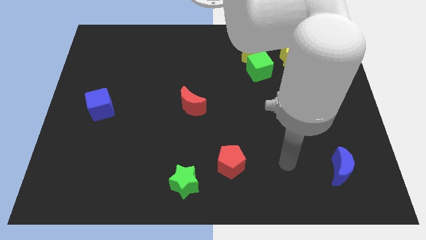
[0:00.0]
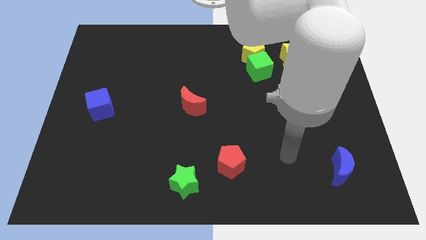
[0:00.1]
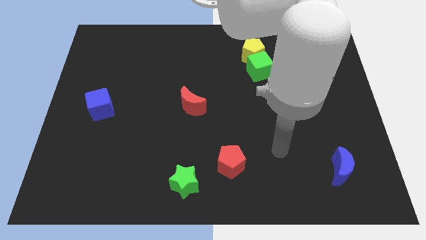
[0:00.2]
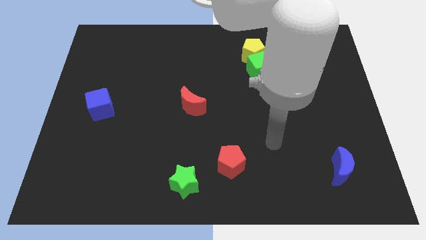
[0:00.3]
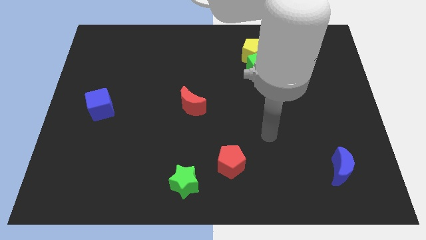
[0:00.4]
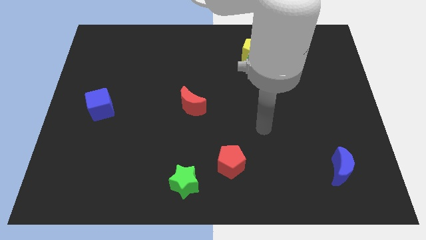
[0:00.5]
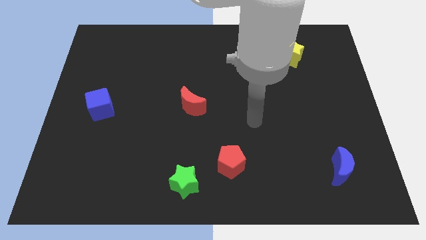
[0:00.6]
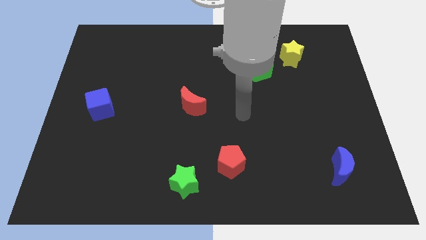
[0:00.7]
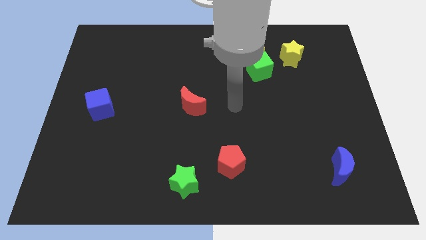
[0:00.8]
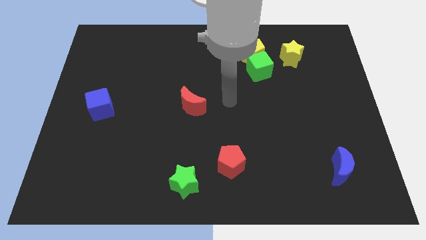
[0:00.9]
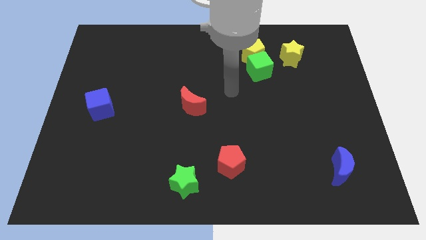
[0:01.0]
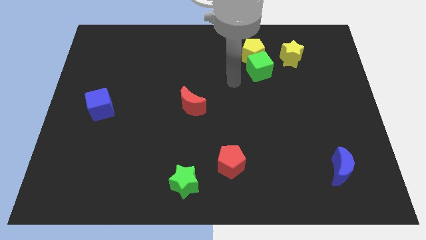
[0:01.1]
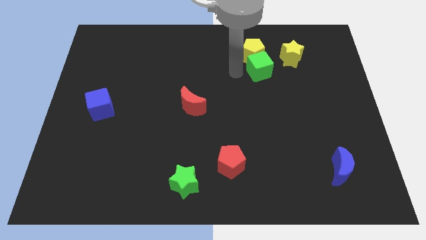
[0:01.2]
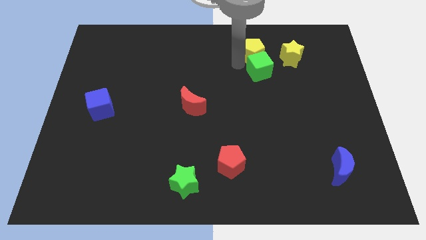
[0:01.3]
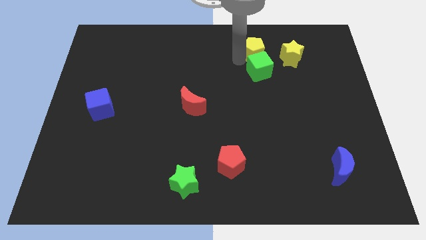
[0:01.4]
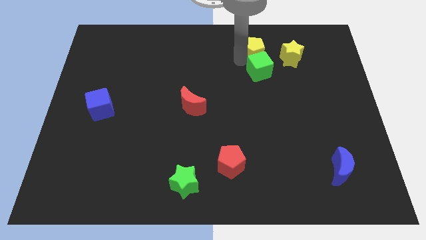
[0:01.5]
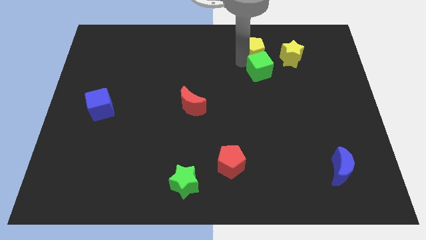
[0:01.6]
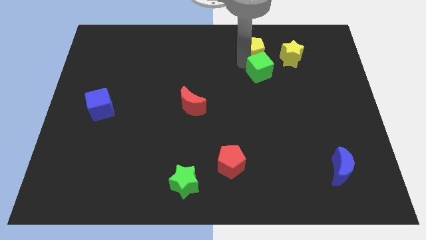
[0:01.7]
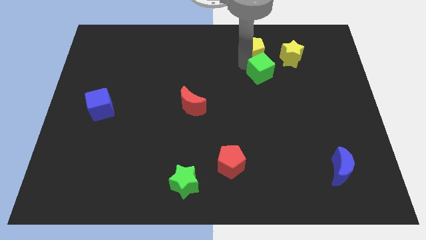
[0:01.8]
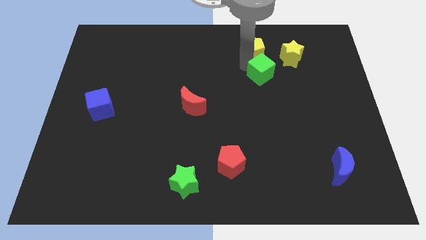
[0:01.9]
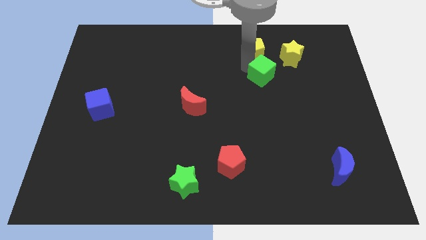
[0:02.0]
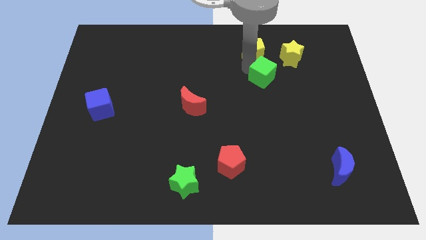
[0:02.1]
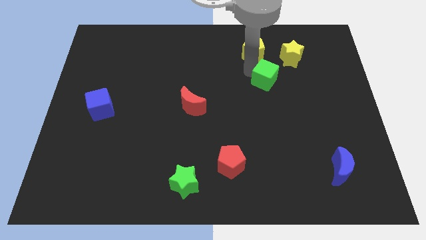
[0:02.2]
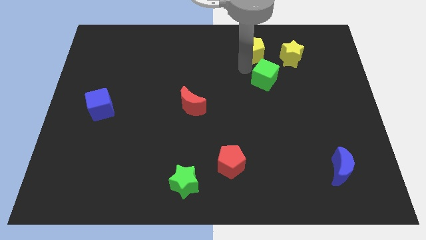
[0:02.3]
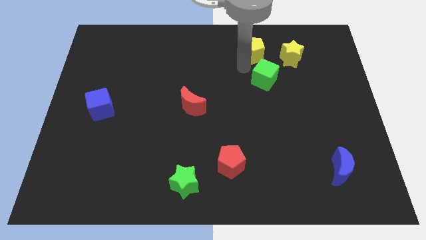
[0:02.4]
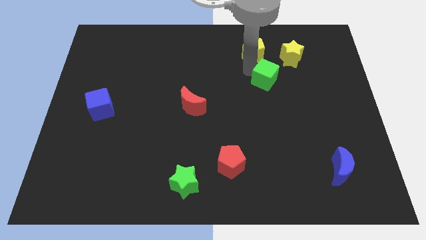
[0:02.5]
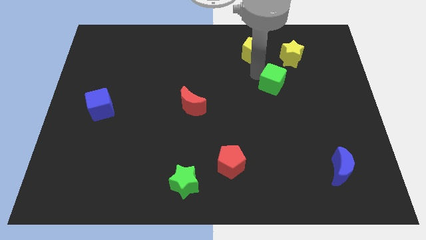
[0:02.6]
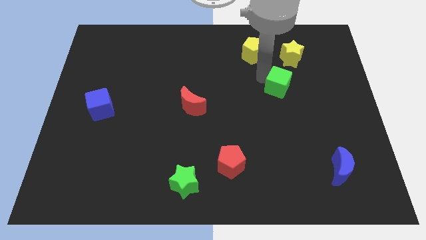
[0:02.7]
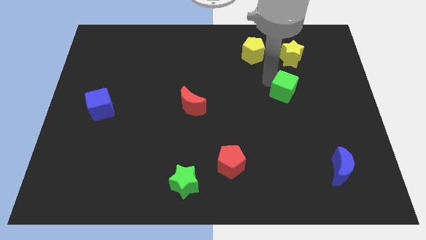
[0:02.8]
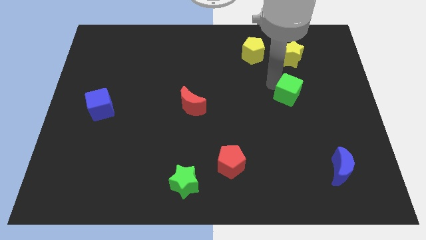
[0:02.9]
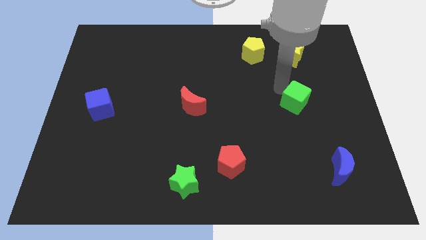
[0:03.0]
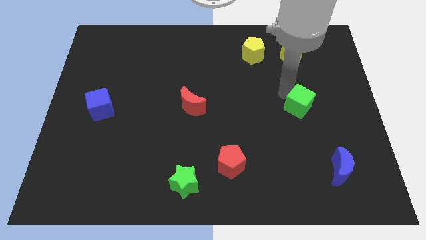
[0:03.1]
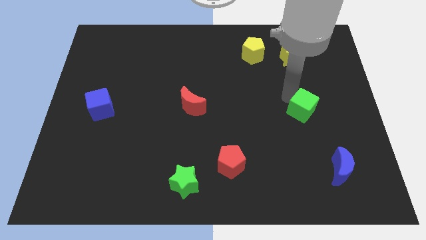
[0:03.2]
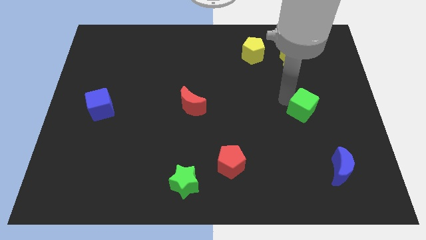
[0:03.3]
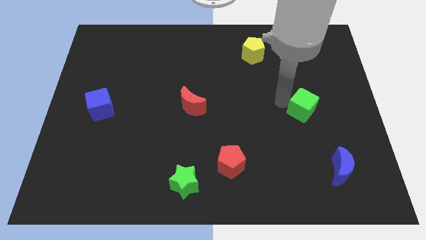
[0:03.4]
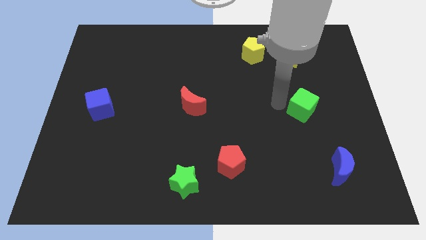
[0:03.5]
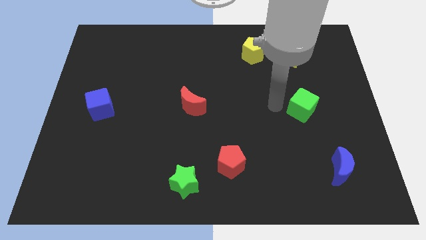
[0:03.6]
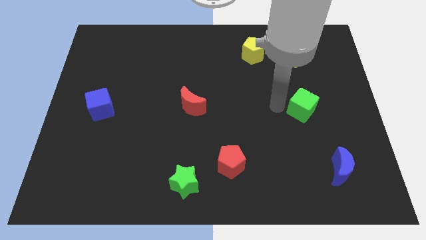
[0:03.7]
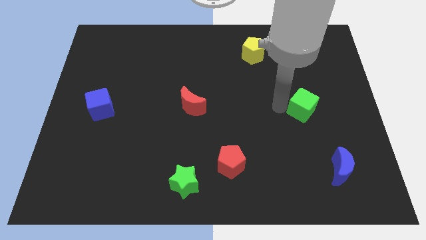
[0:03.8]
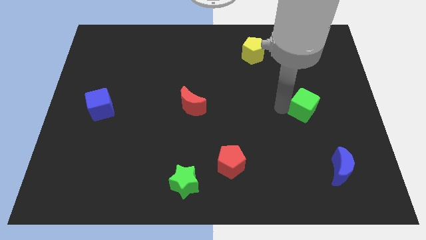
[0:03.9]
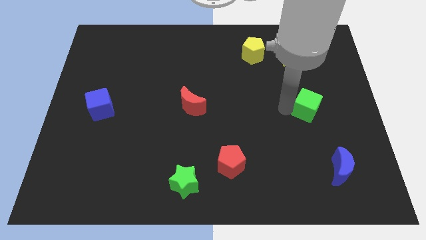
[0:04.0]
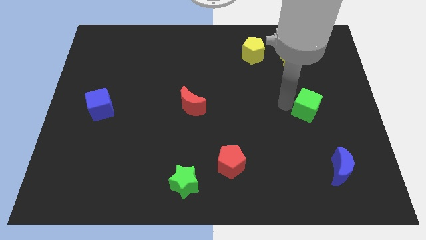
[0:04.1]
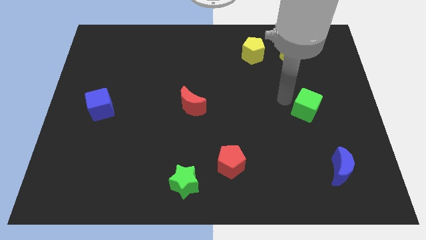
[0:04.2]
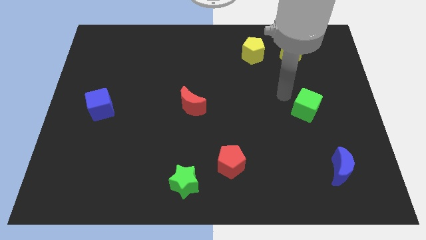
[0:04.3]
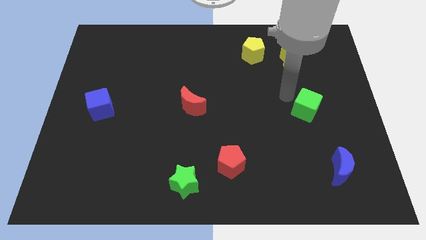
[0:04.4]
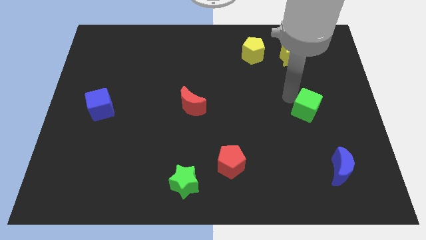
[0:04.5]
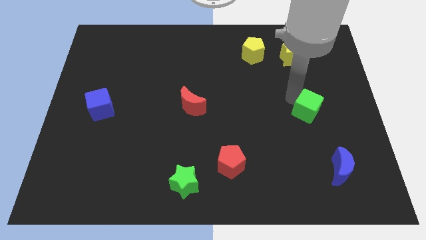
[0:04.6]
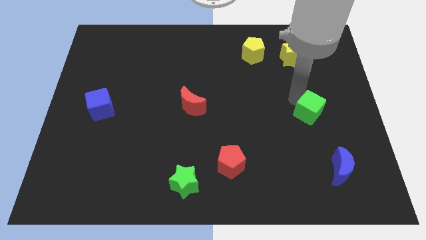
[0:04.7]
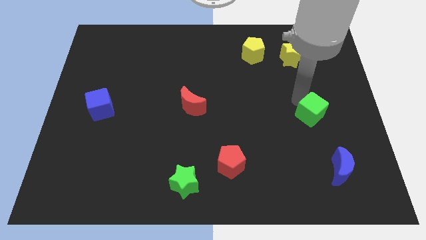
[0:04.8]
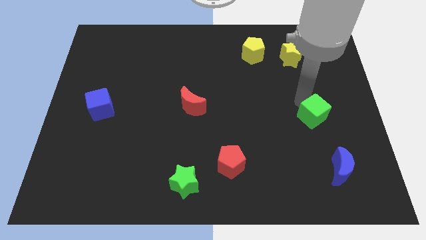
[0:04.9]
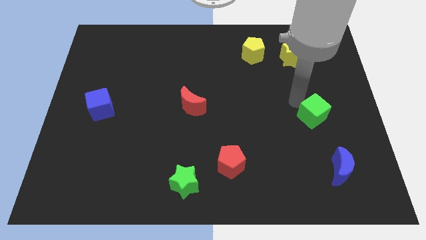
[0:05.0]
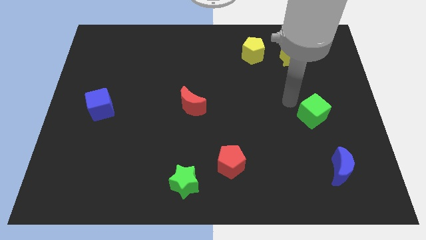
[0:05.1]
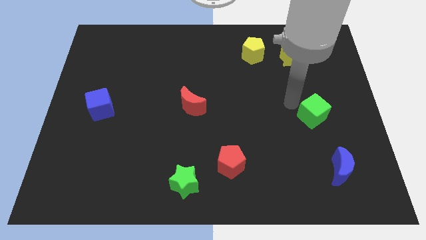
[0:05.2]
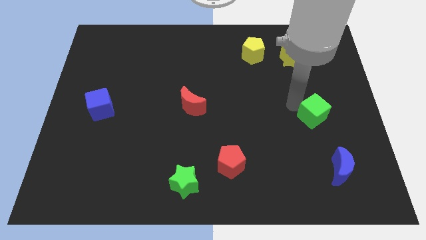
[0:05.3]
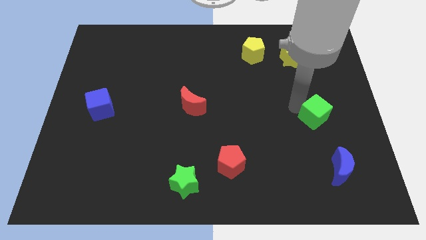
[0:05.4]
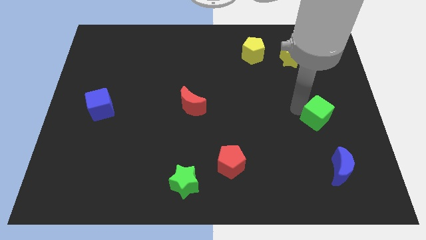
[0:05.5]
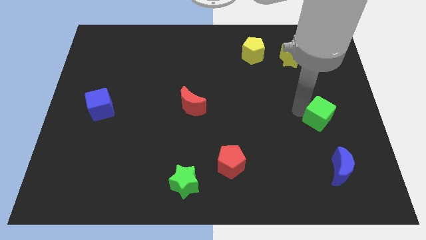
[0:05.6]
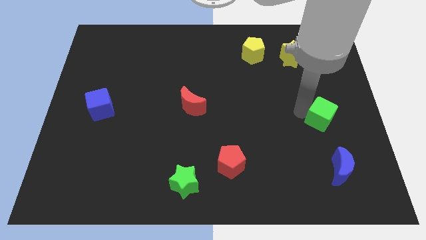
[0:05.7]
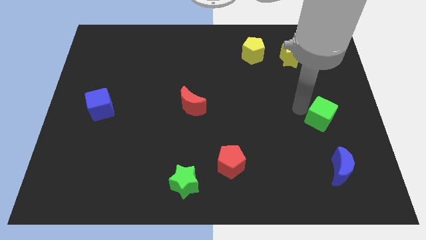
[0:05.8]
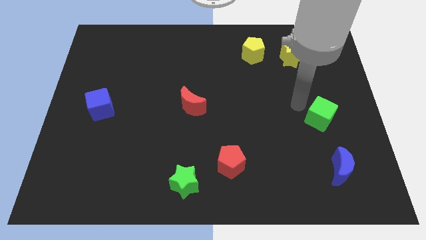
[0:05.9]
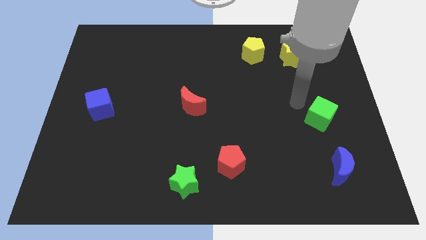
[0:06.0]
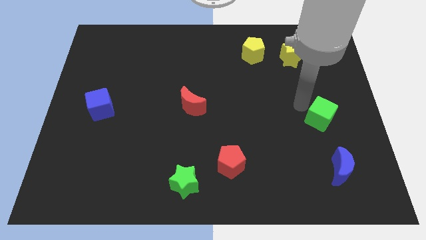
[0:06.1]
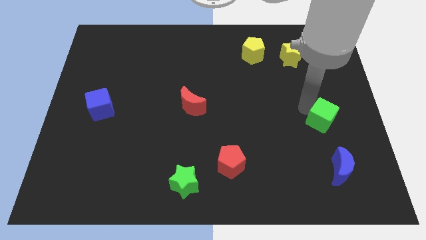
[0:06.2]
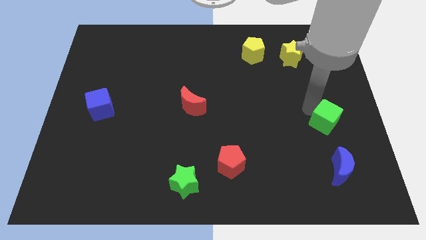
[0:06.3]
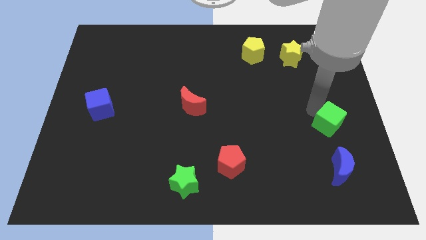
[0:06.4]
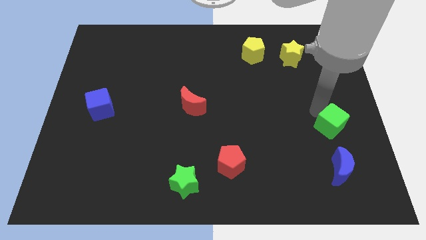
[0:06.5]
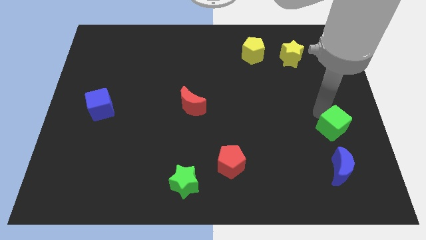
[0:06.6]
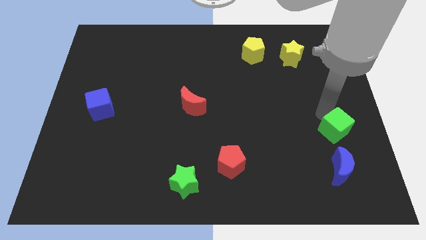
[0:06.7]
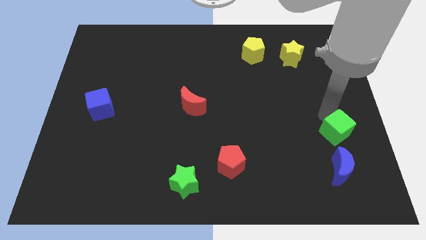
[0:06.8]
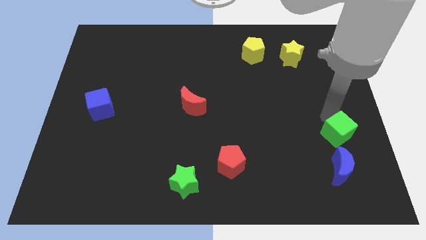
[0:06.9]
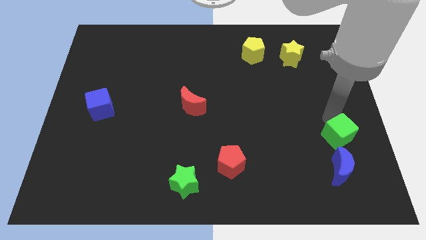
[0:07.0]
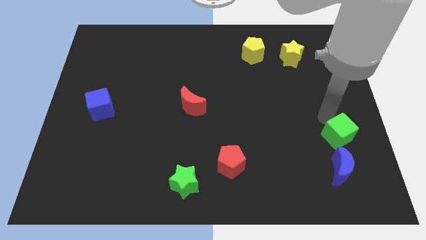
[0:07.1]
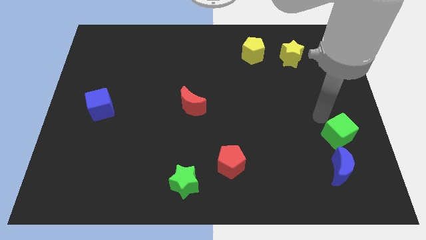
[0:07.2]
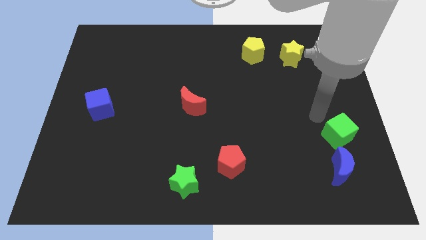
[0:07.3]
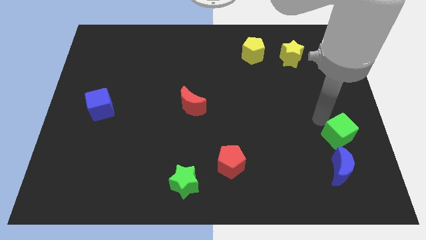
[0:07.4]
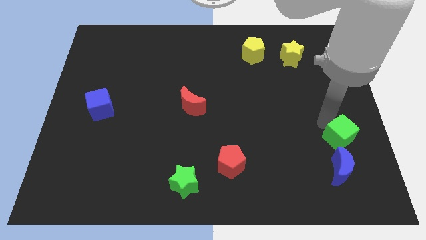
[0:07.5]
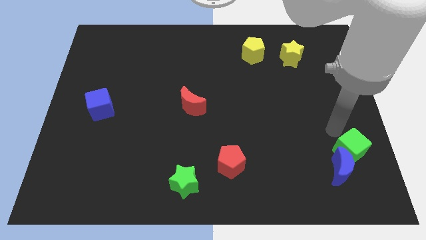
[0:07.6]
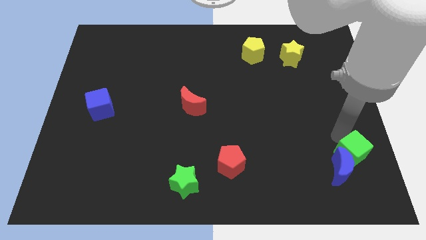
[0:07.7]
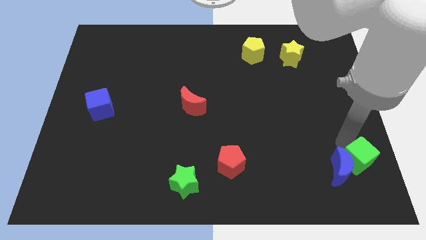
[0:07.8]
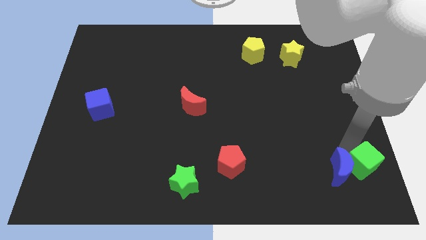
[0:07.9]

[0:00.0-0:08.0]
move the green cube to the lower right corner
